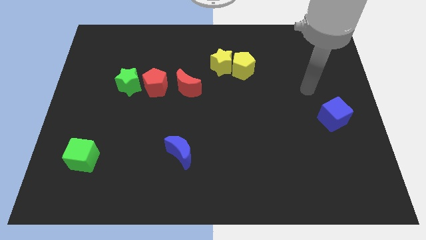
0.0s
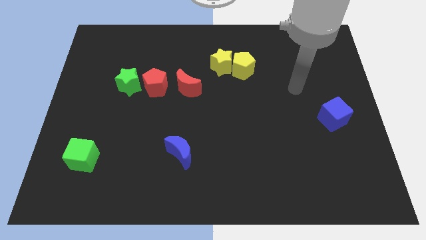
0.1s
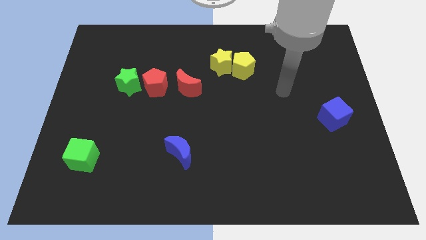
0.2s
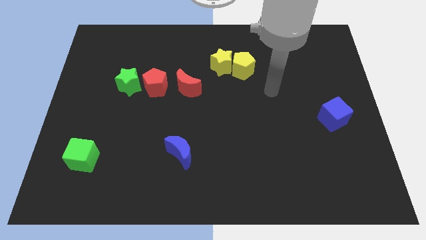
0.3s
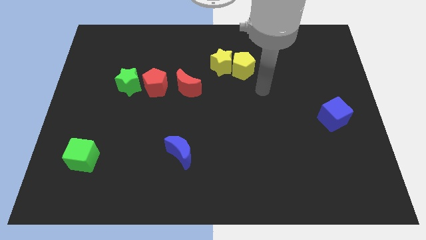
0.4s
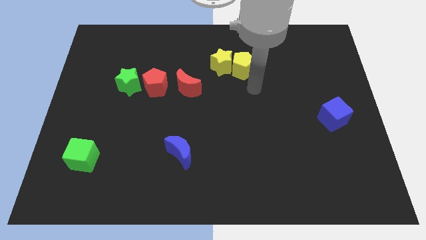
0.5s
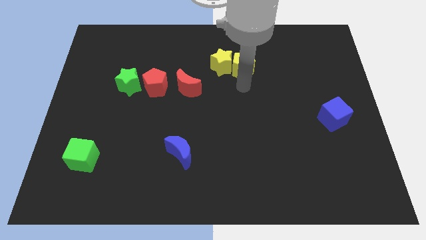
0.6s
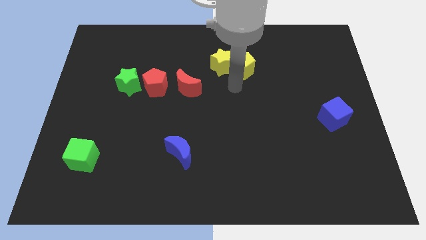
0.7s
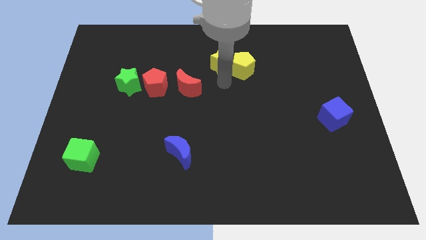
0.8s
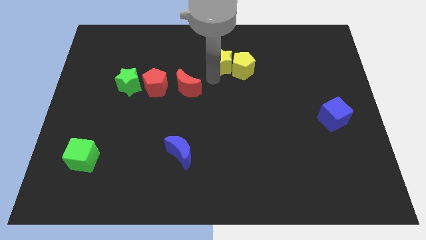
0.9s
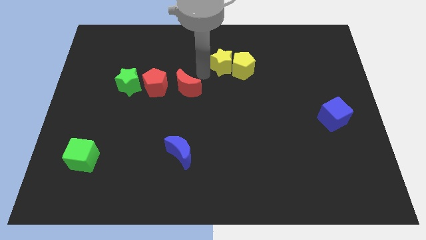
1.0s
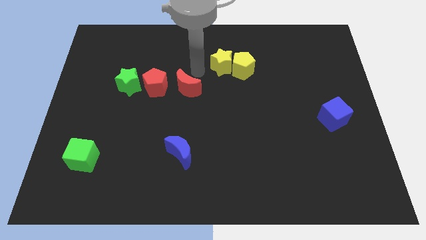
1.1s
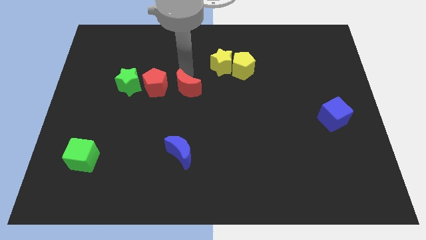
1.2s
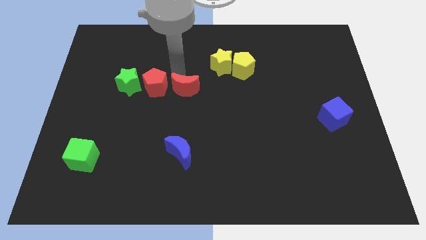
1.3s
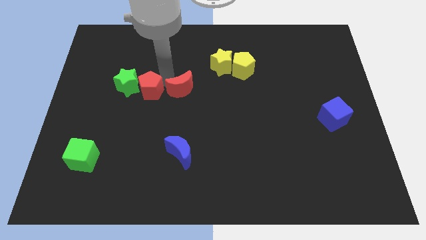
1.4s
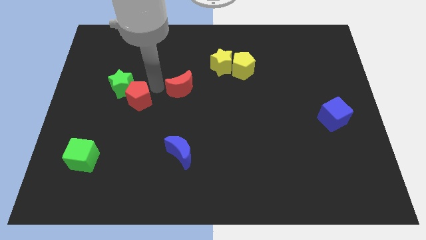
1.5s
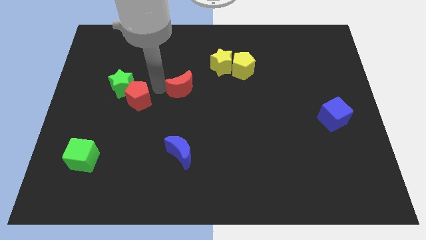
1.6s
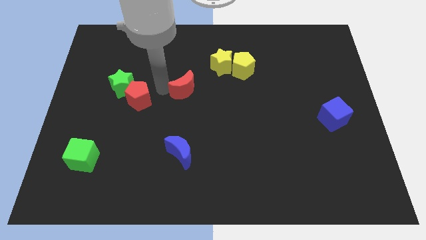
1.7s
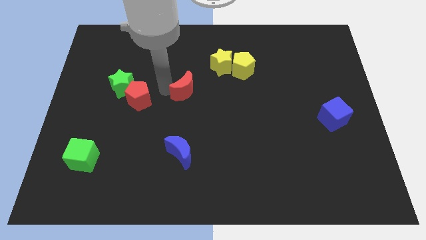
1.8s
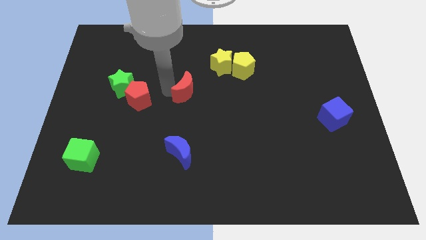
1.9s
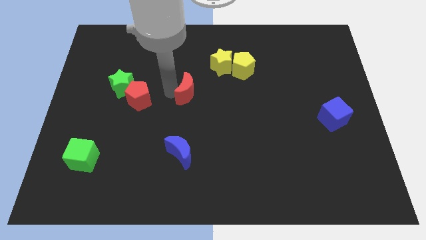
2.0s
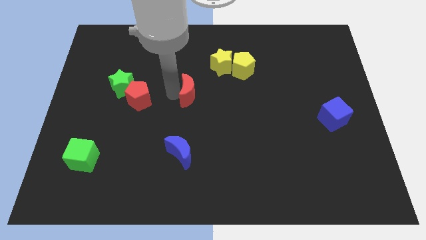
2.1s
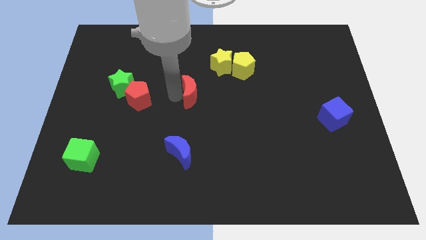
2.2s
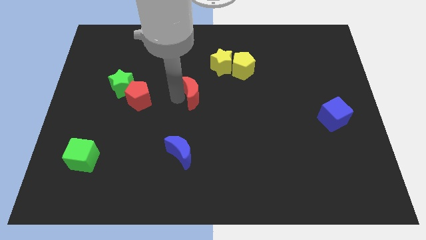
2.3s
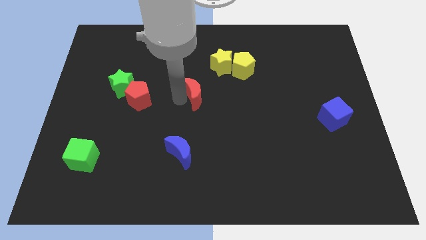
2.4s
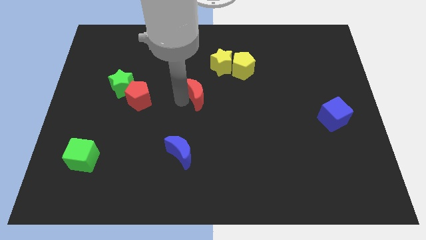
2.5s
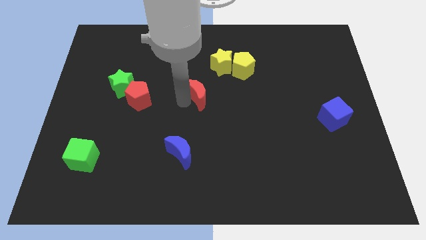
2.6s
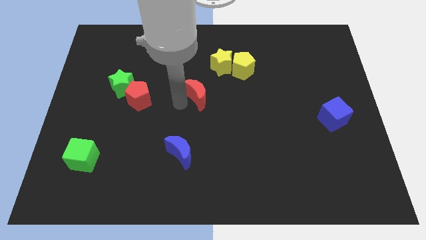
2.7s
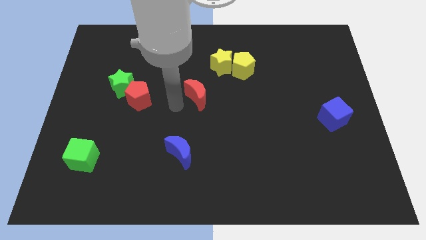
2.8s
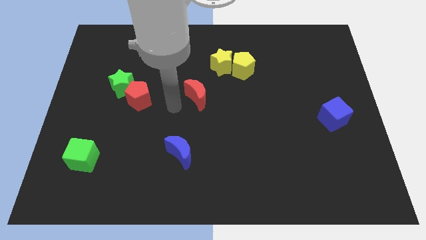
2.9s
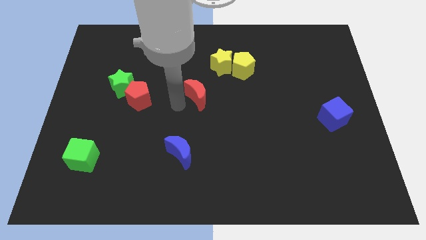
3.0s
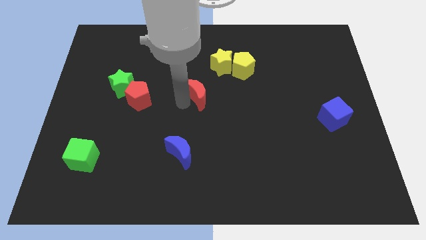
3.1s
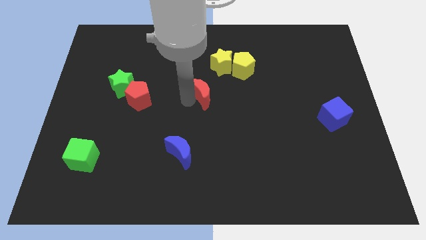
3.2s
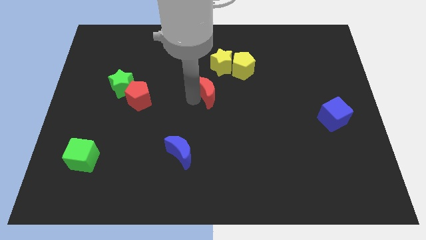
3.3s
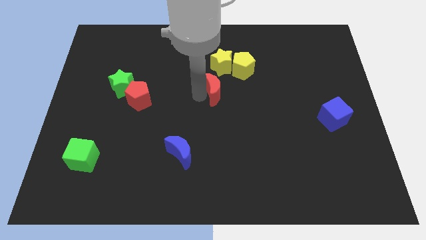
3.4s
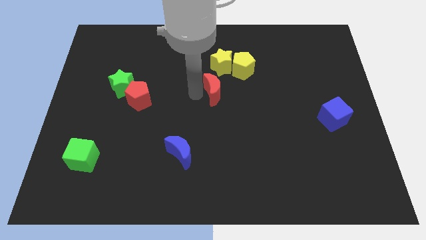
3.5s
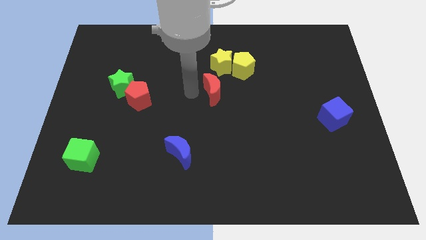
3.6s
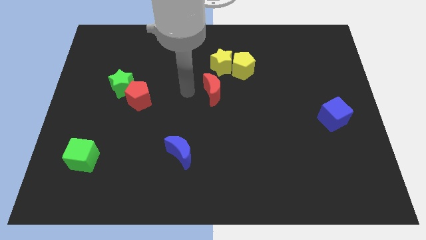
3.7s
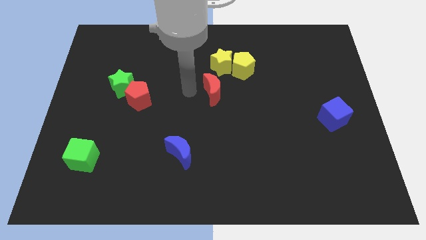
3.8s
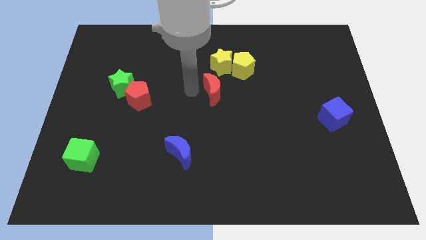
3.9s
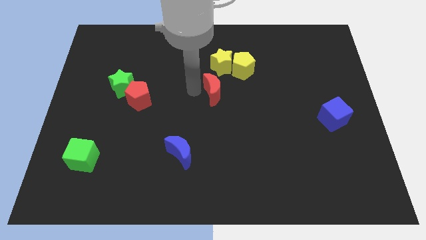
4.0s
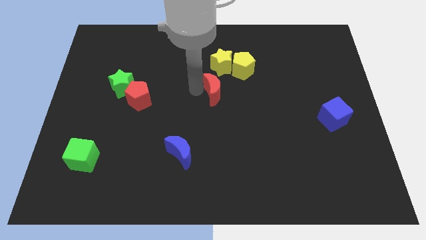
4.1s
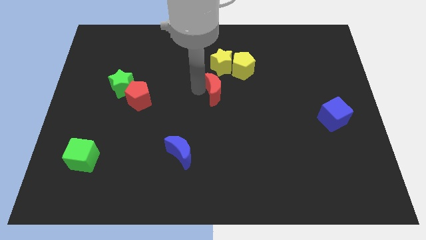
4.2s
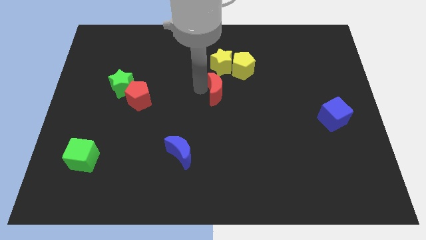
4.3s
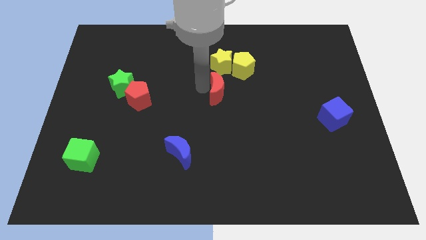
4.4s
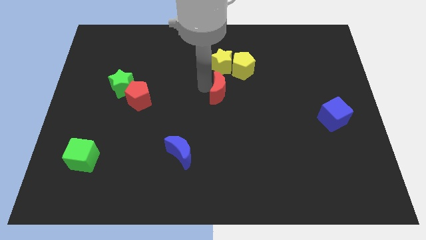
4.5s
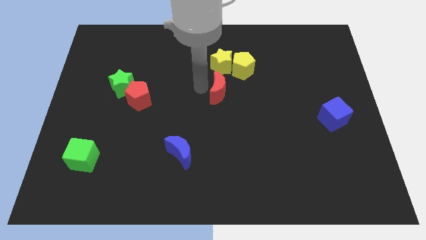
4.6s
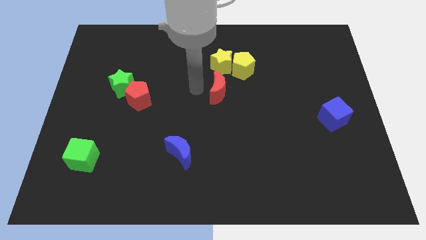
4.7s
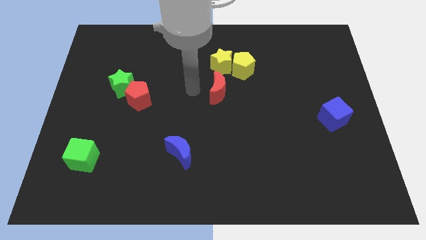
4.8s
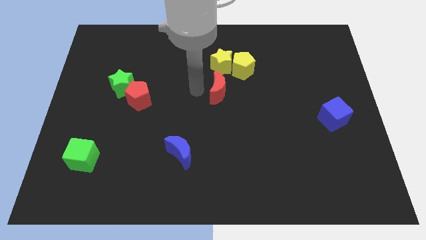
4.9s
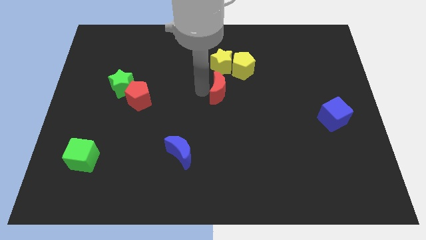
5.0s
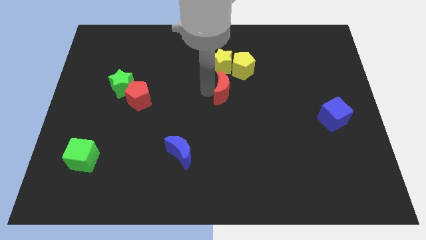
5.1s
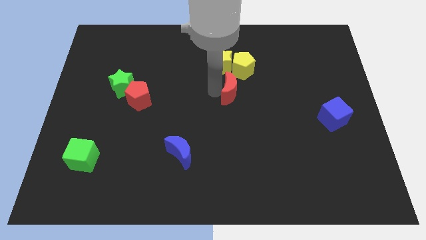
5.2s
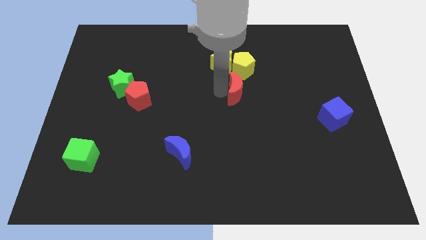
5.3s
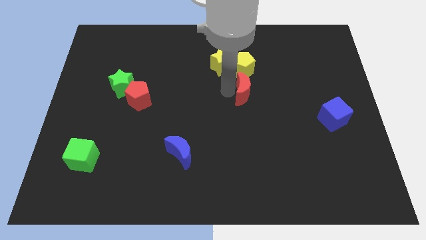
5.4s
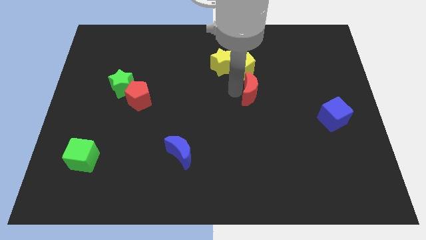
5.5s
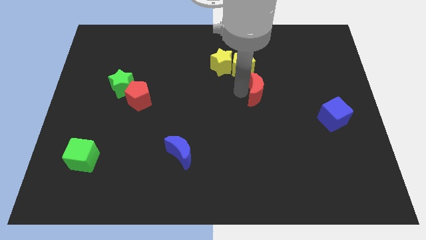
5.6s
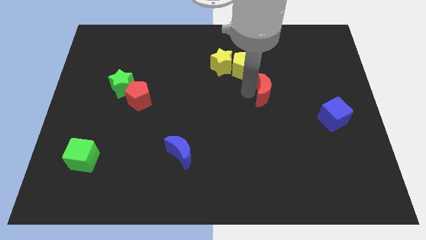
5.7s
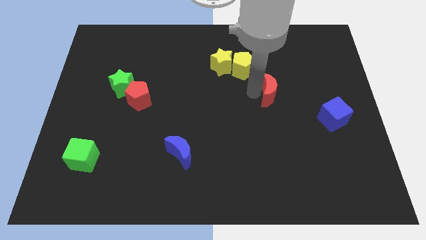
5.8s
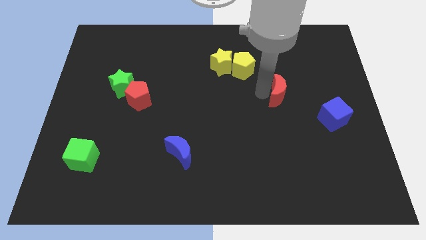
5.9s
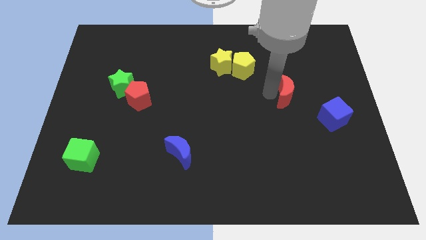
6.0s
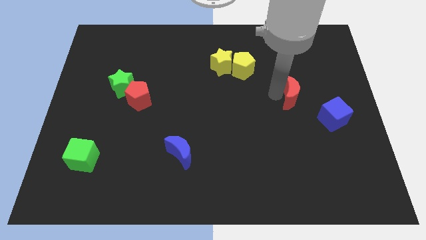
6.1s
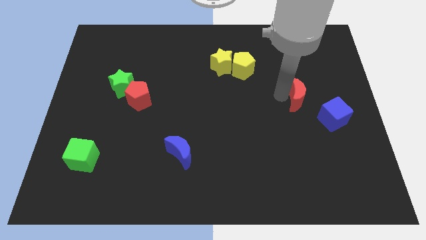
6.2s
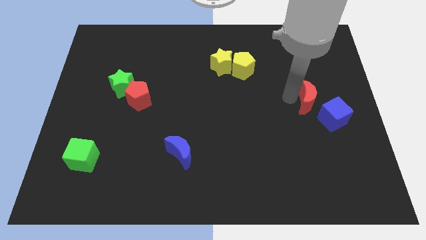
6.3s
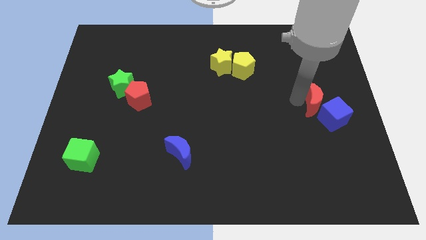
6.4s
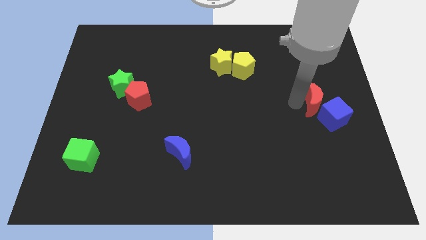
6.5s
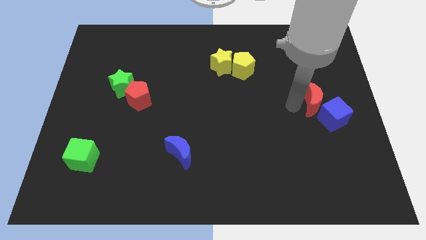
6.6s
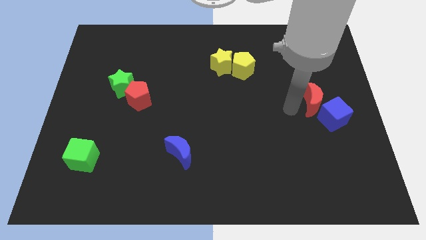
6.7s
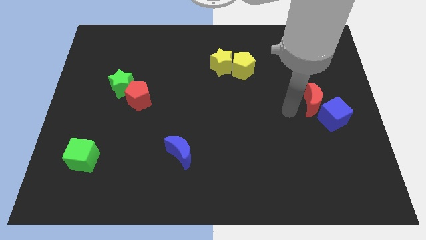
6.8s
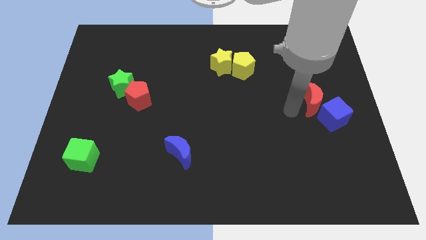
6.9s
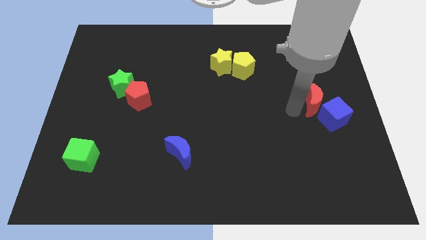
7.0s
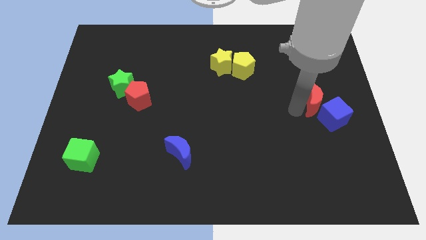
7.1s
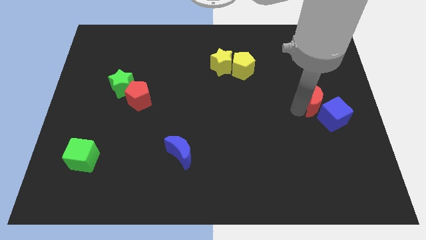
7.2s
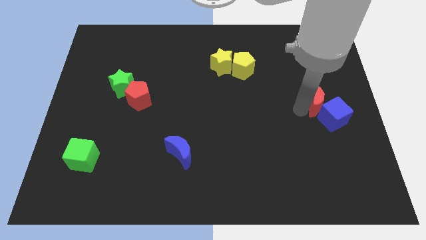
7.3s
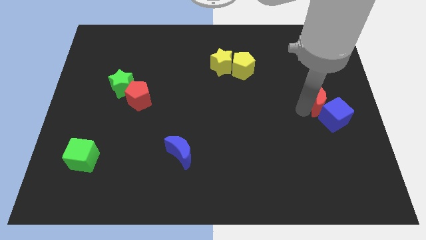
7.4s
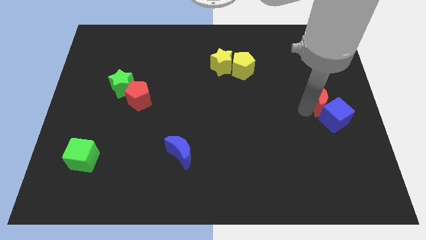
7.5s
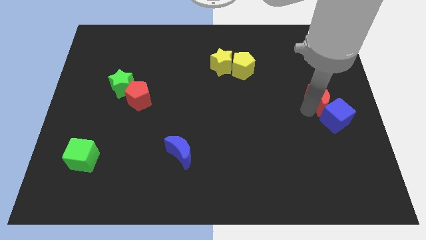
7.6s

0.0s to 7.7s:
move the red moon to the center right
